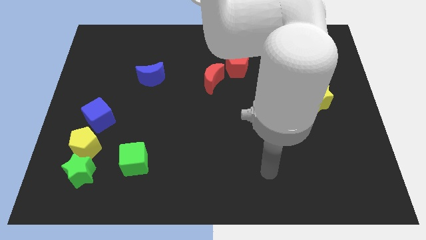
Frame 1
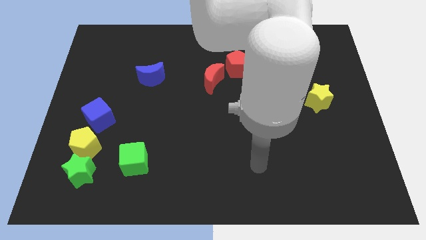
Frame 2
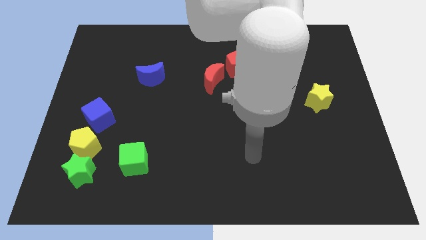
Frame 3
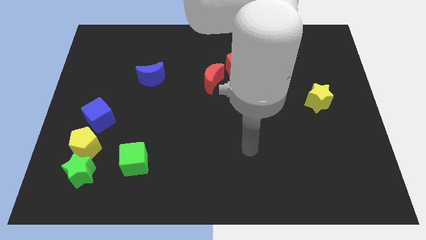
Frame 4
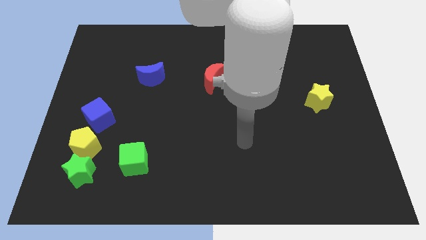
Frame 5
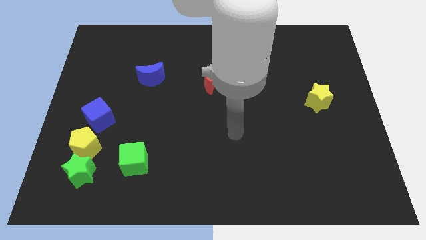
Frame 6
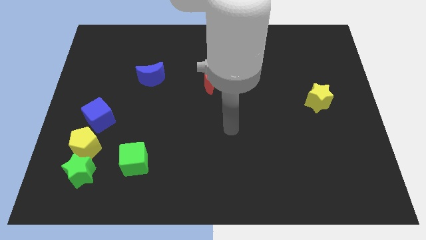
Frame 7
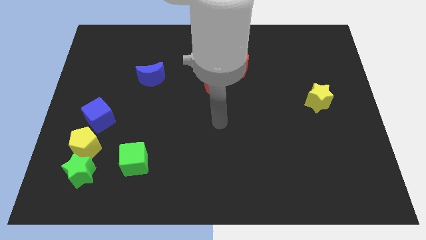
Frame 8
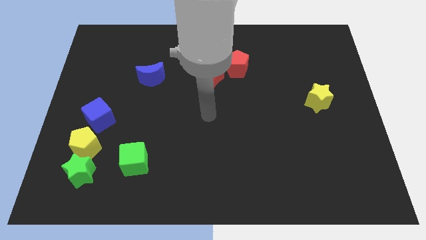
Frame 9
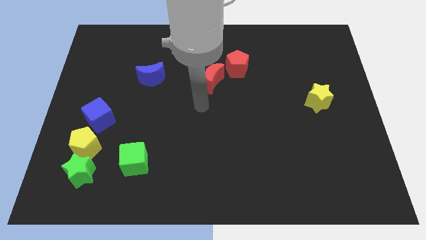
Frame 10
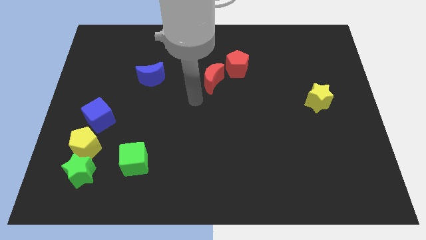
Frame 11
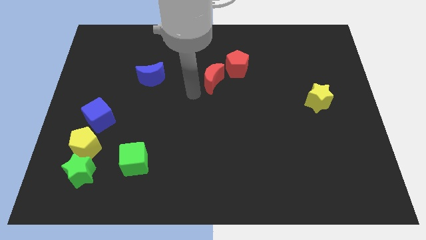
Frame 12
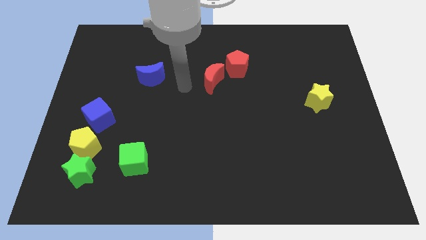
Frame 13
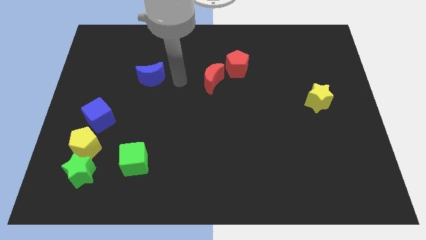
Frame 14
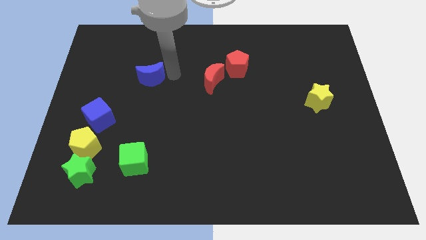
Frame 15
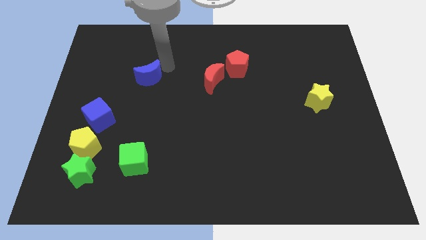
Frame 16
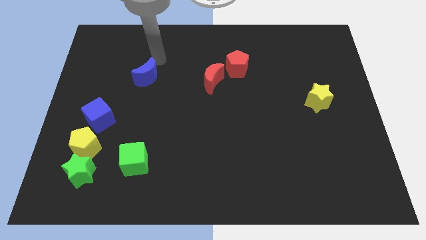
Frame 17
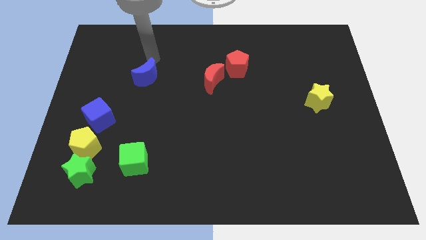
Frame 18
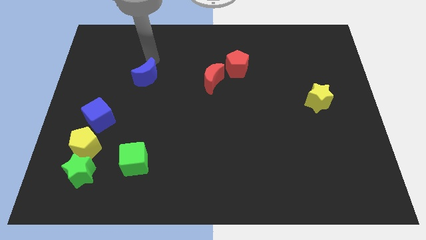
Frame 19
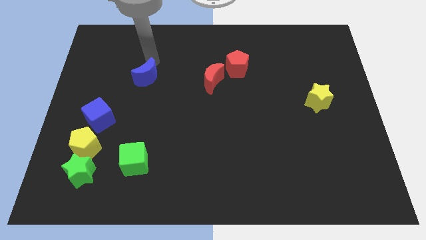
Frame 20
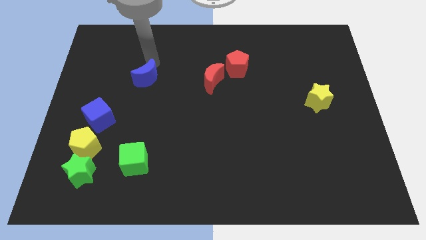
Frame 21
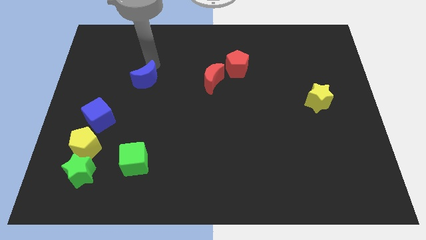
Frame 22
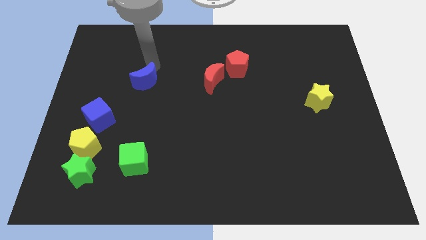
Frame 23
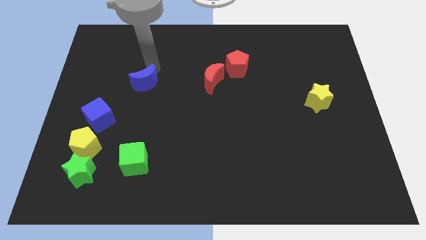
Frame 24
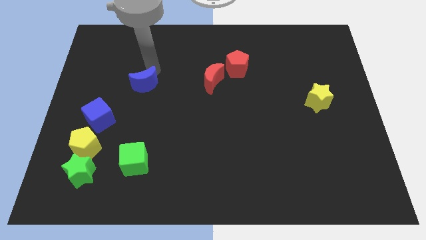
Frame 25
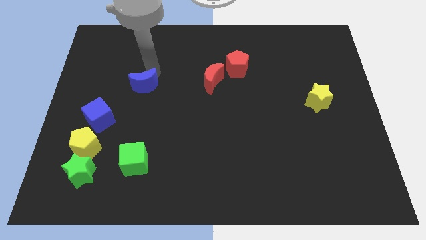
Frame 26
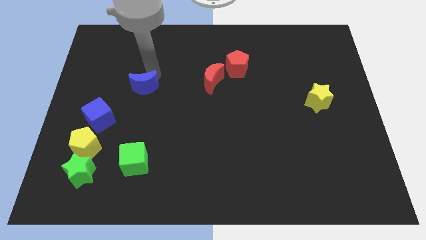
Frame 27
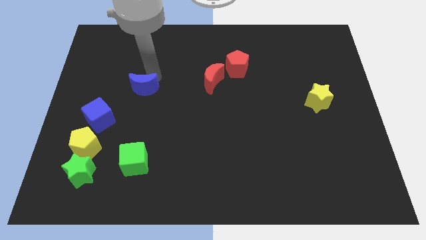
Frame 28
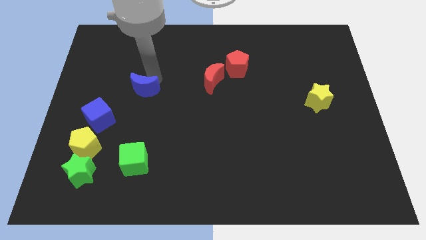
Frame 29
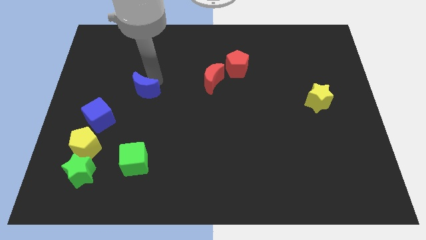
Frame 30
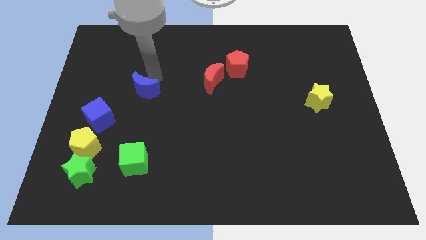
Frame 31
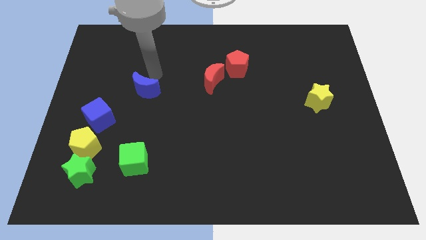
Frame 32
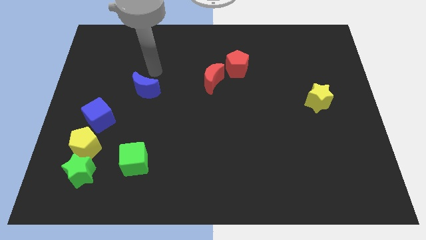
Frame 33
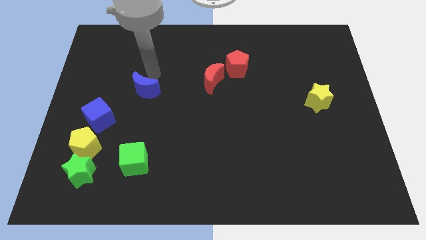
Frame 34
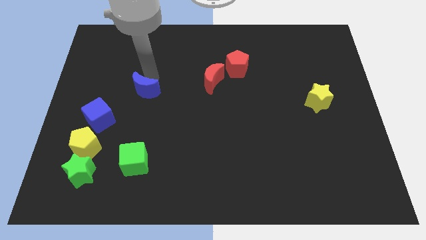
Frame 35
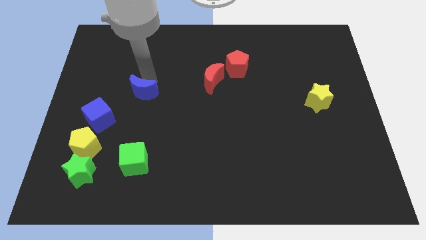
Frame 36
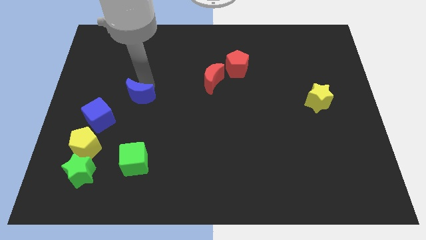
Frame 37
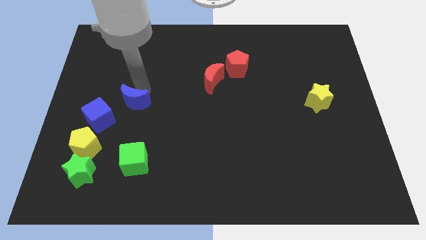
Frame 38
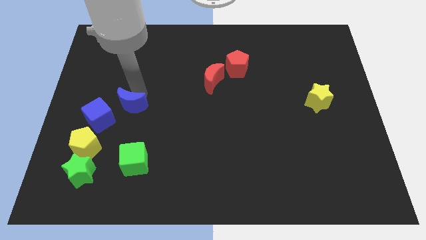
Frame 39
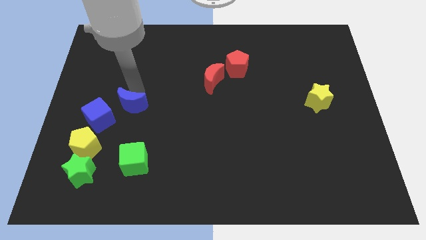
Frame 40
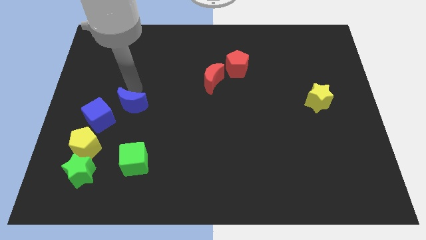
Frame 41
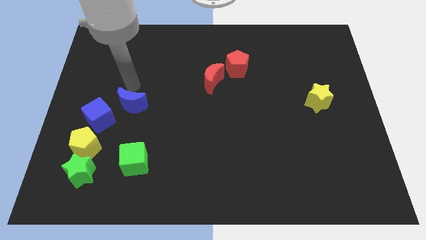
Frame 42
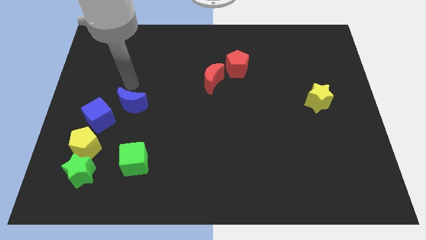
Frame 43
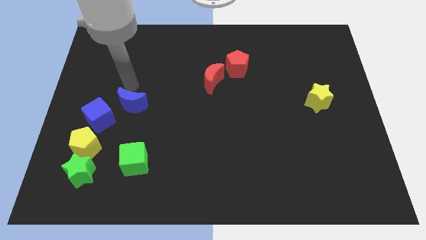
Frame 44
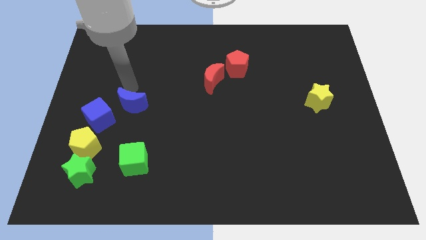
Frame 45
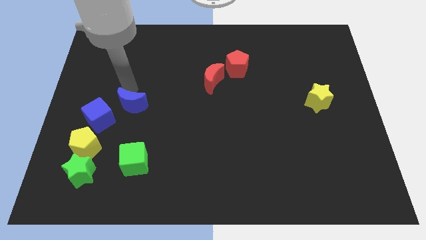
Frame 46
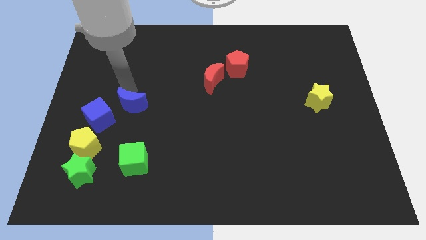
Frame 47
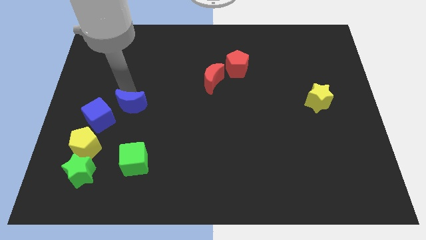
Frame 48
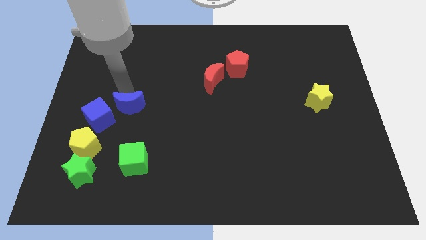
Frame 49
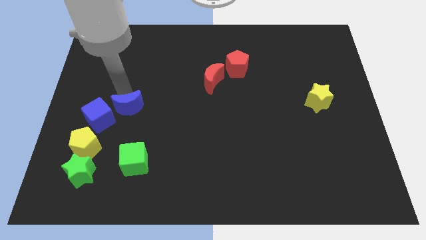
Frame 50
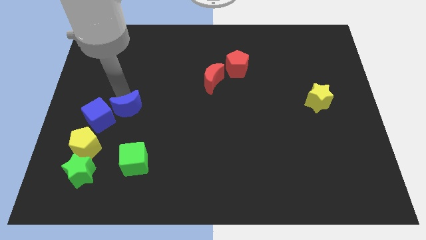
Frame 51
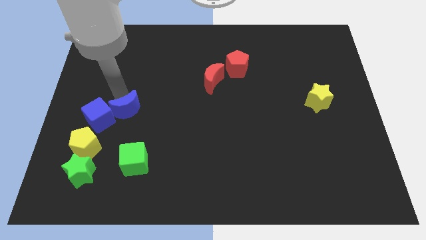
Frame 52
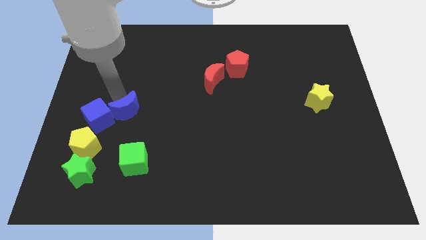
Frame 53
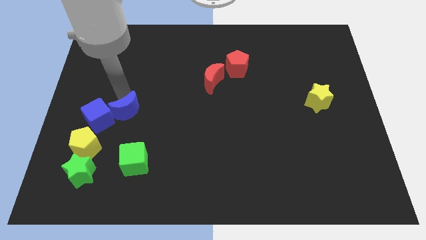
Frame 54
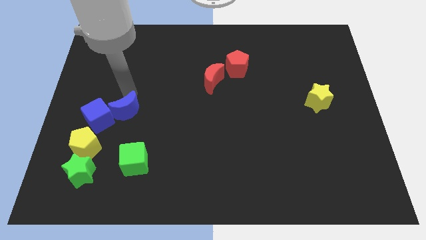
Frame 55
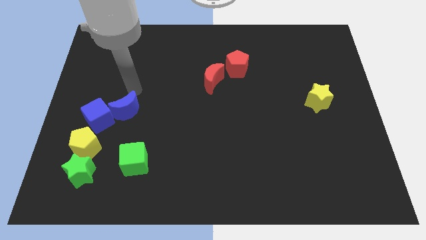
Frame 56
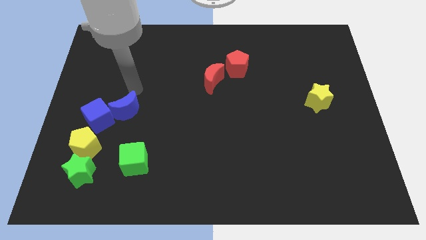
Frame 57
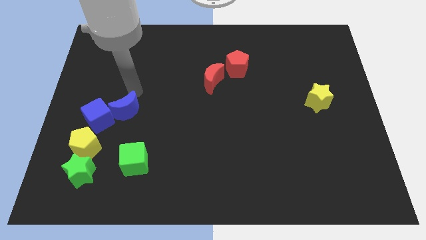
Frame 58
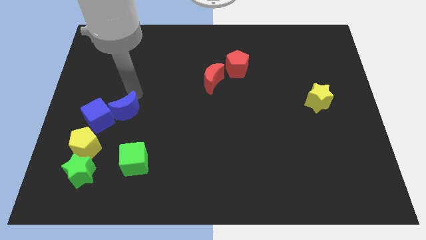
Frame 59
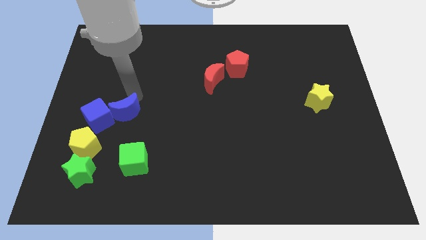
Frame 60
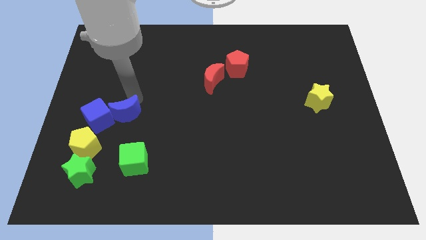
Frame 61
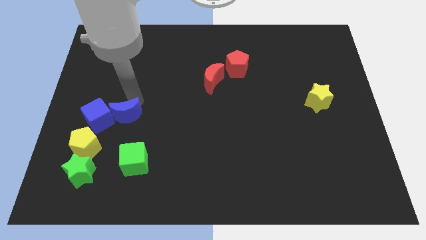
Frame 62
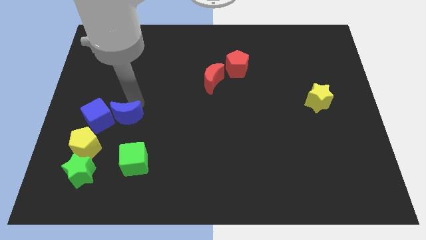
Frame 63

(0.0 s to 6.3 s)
slide the blue moon diagonally down and to the right of the blue cube
